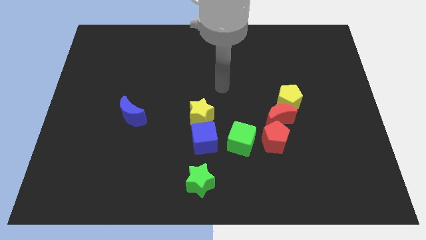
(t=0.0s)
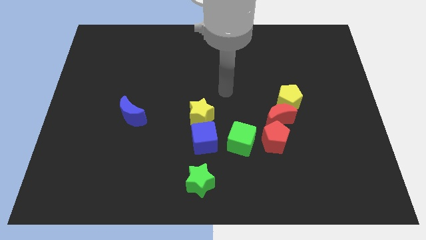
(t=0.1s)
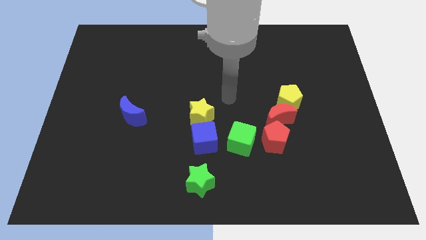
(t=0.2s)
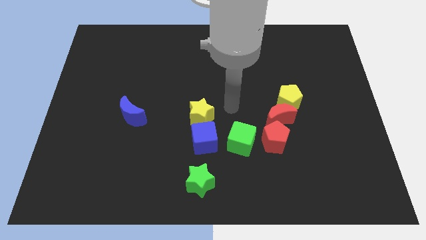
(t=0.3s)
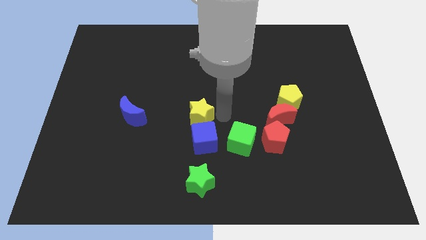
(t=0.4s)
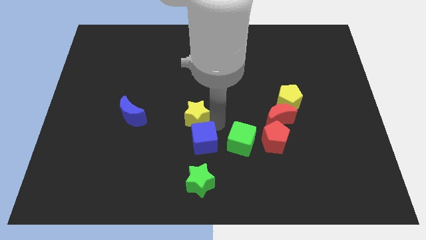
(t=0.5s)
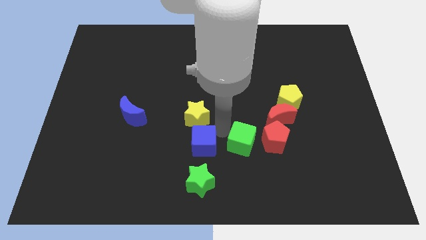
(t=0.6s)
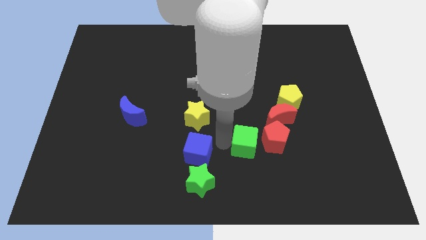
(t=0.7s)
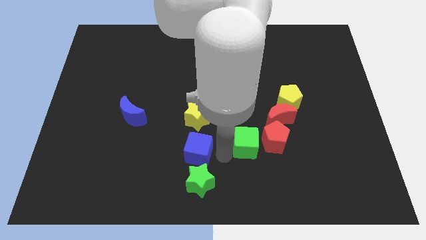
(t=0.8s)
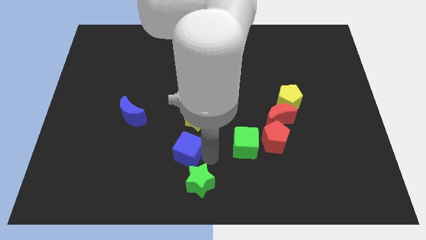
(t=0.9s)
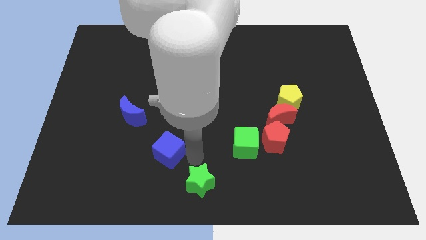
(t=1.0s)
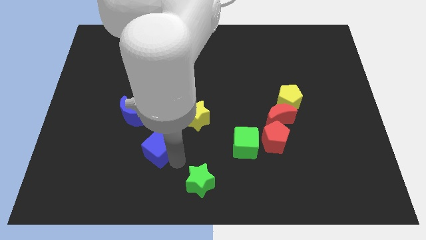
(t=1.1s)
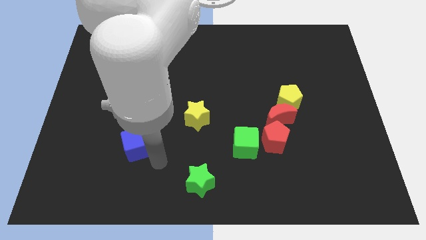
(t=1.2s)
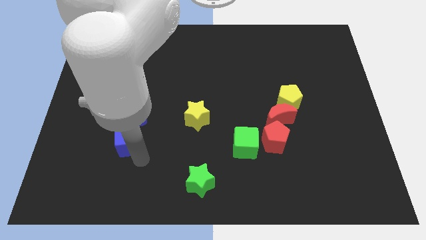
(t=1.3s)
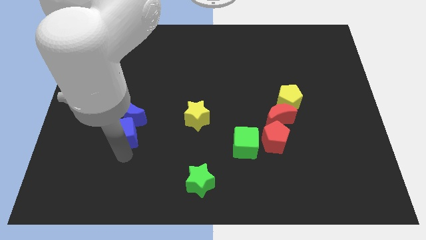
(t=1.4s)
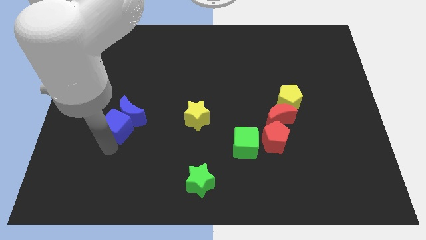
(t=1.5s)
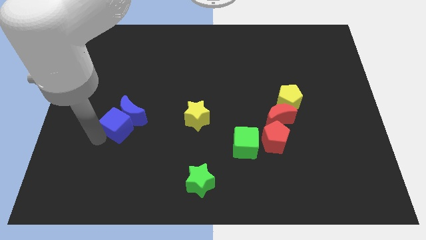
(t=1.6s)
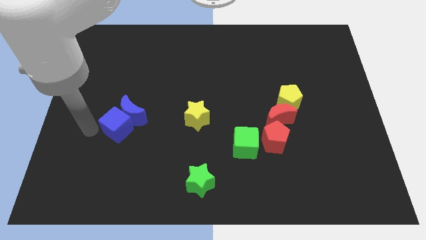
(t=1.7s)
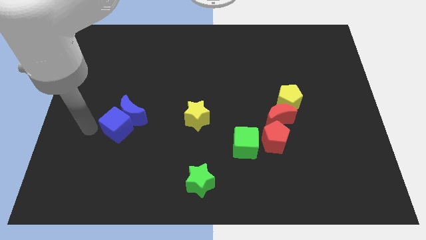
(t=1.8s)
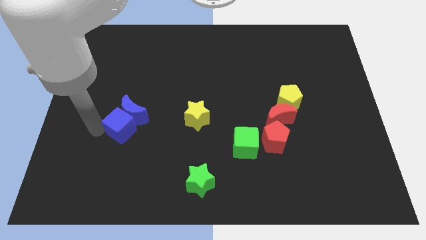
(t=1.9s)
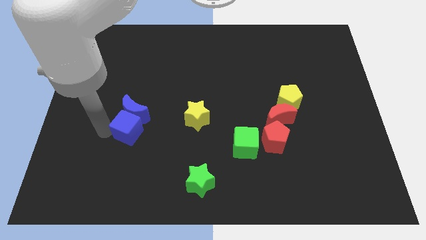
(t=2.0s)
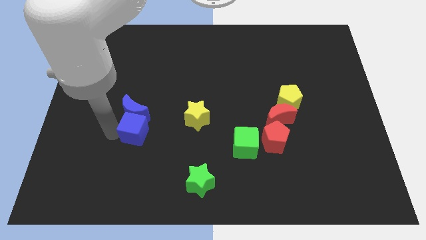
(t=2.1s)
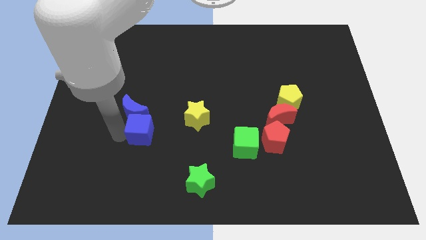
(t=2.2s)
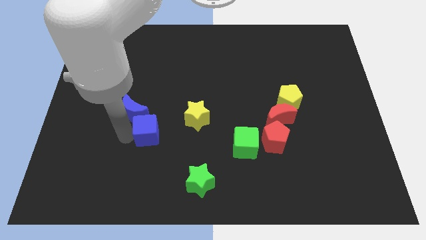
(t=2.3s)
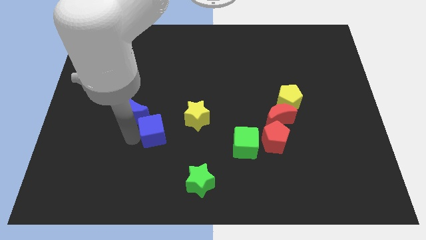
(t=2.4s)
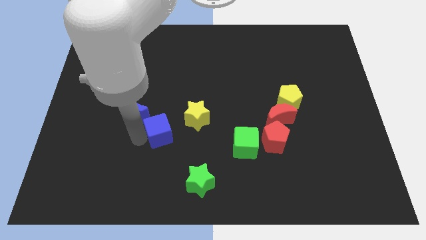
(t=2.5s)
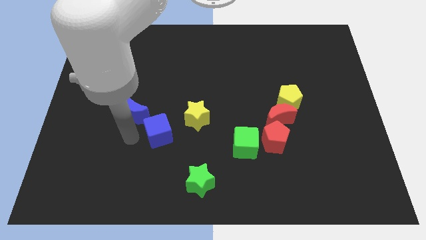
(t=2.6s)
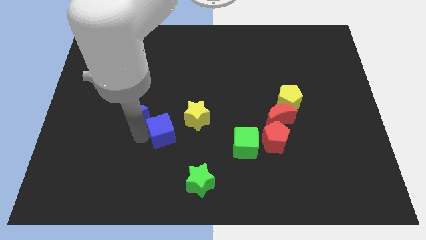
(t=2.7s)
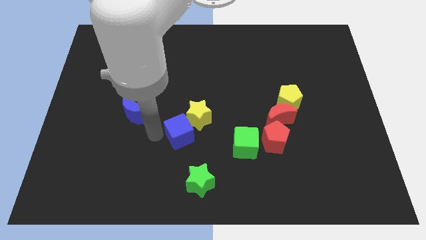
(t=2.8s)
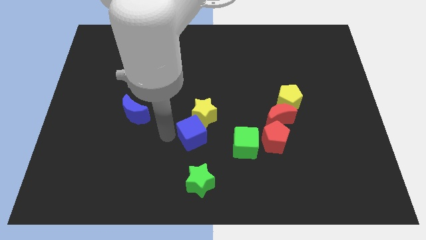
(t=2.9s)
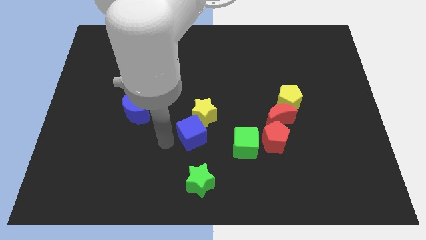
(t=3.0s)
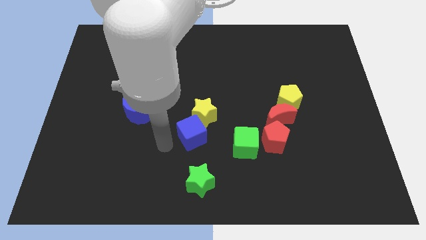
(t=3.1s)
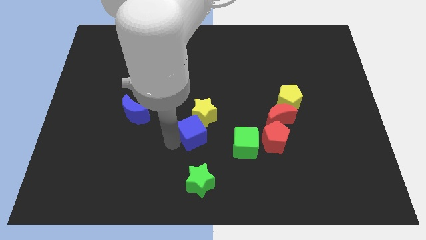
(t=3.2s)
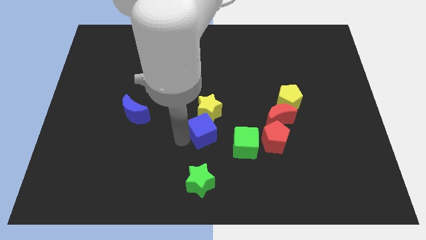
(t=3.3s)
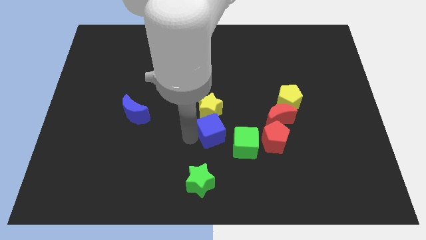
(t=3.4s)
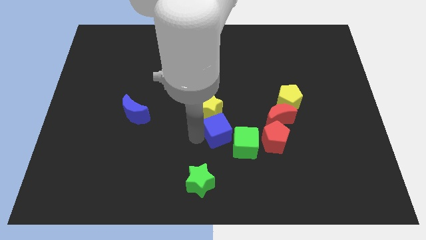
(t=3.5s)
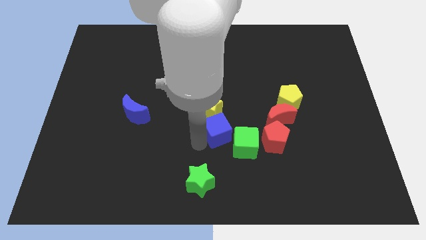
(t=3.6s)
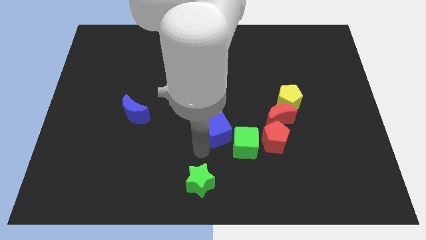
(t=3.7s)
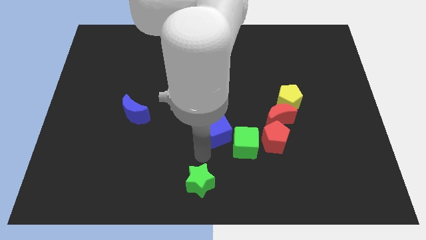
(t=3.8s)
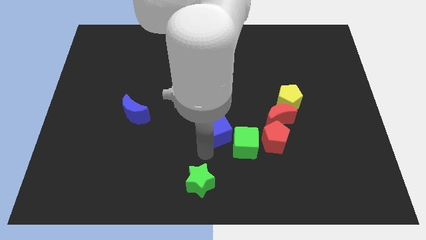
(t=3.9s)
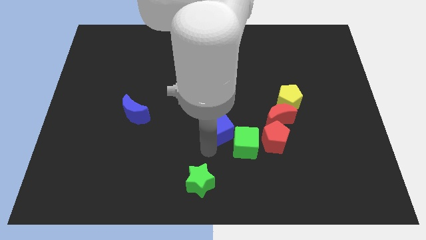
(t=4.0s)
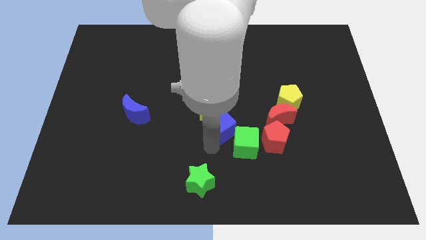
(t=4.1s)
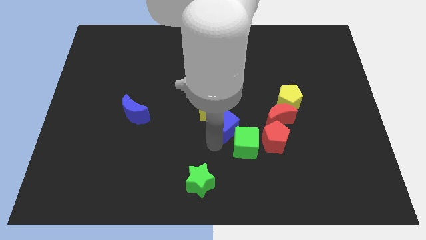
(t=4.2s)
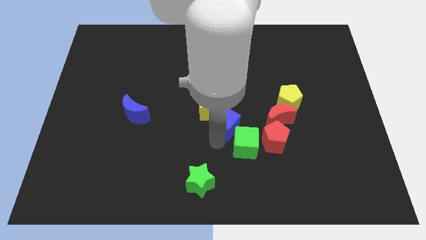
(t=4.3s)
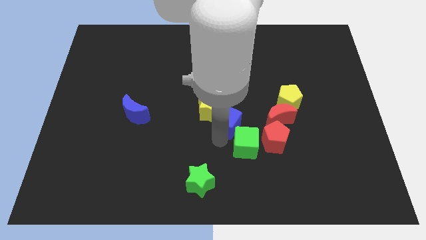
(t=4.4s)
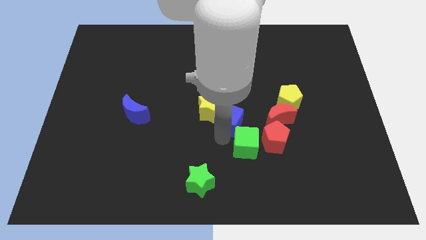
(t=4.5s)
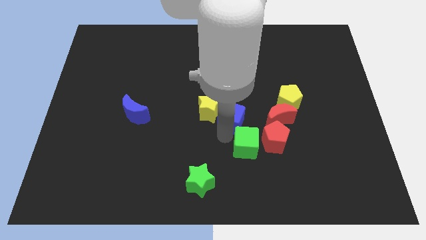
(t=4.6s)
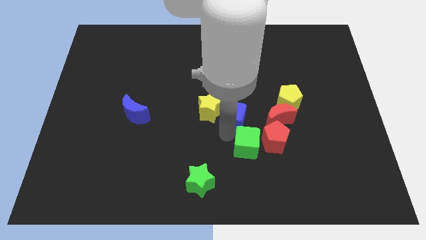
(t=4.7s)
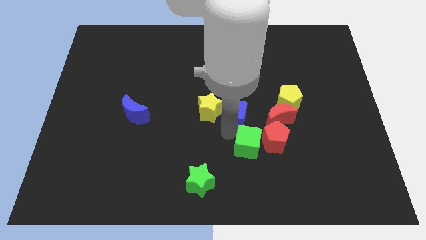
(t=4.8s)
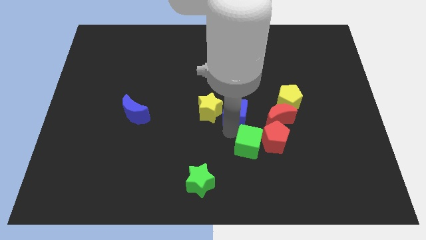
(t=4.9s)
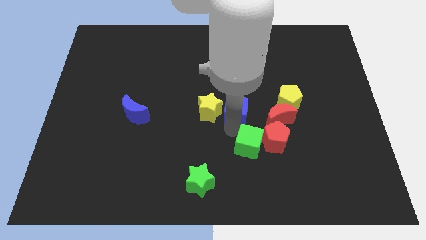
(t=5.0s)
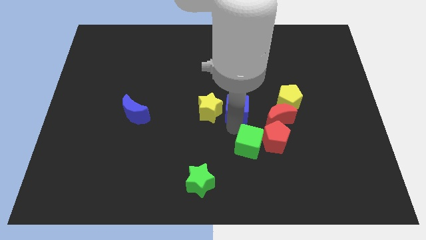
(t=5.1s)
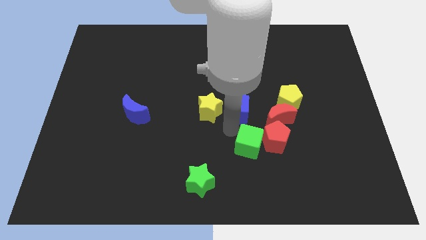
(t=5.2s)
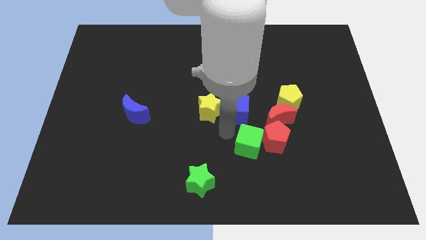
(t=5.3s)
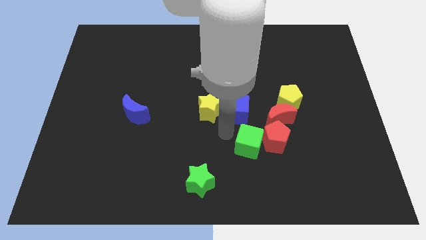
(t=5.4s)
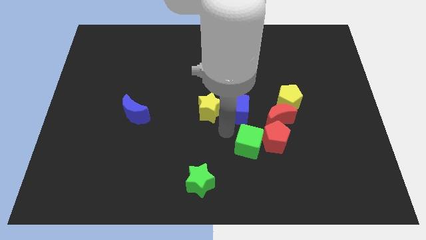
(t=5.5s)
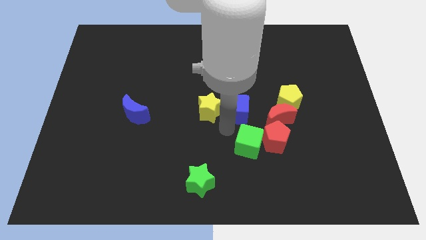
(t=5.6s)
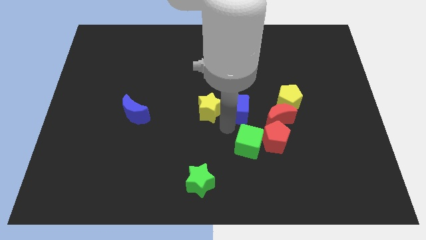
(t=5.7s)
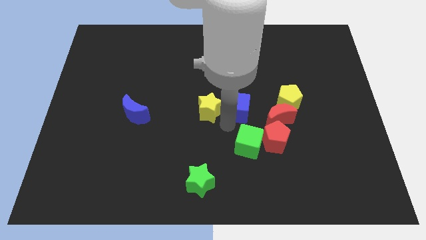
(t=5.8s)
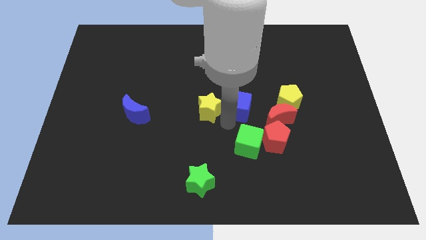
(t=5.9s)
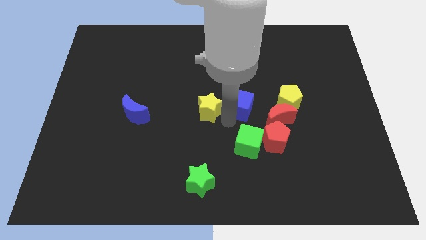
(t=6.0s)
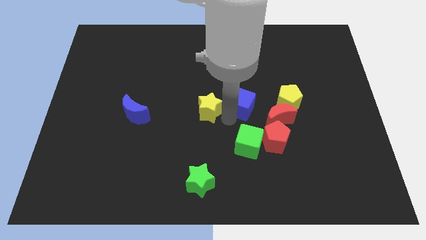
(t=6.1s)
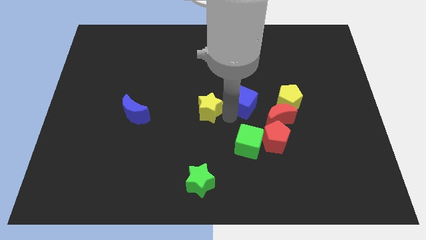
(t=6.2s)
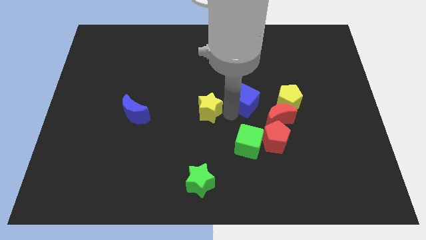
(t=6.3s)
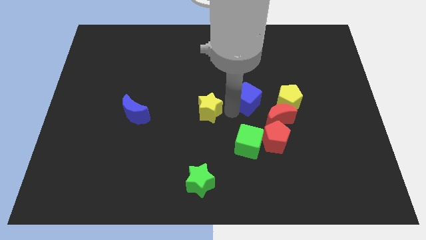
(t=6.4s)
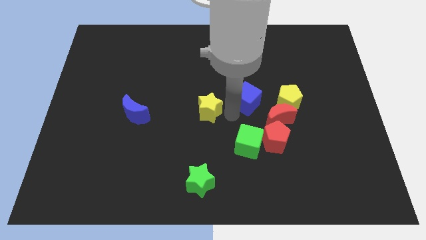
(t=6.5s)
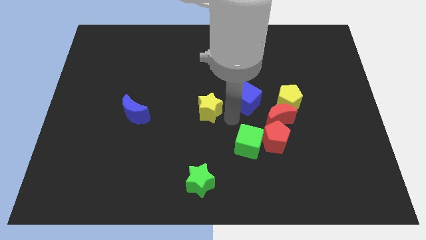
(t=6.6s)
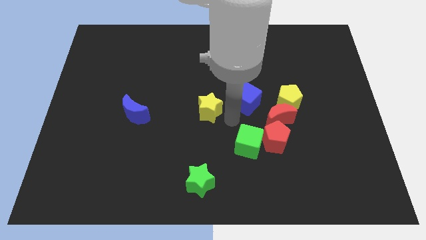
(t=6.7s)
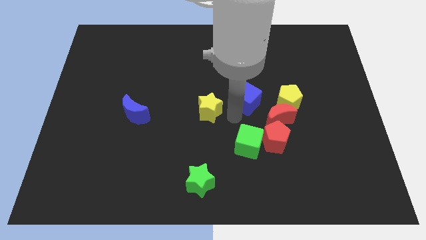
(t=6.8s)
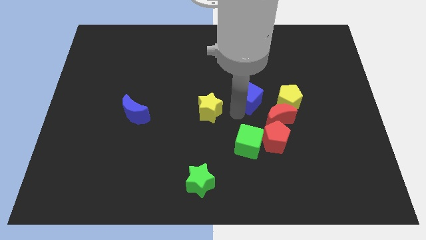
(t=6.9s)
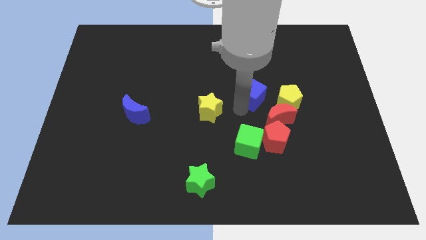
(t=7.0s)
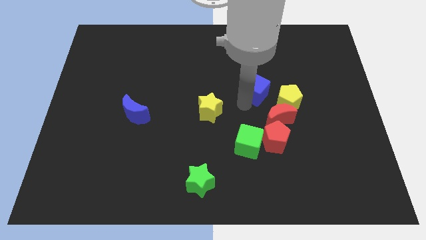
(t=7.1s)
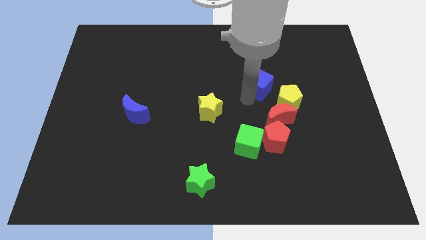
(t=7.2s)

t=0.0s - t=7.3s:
move the blue cube upwards and then right

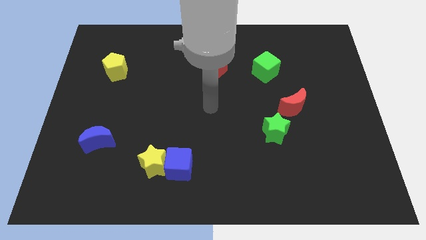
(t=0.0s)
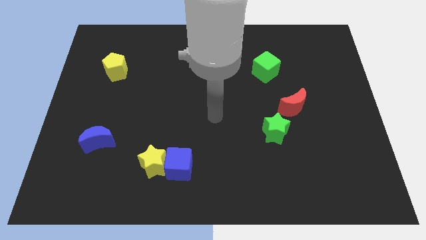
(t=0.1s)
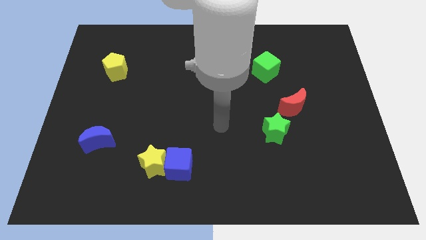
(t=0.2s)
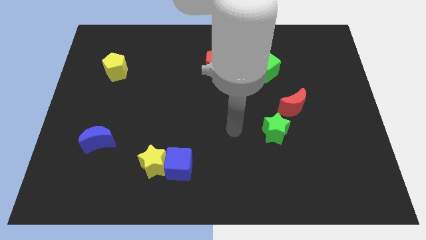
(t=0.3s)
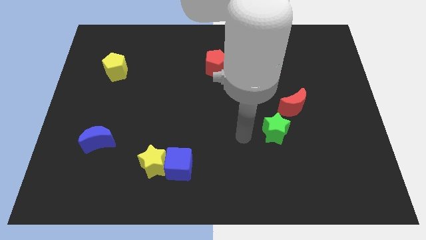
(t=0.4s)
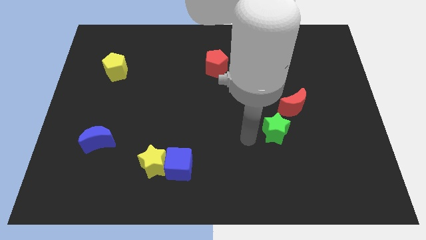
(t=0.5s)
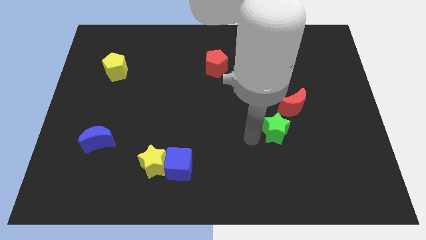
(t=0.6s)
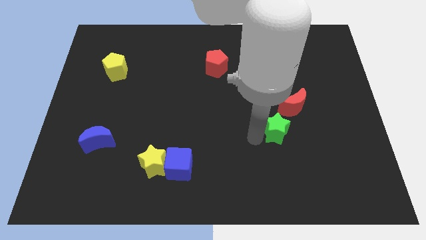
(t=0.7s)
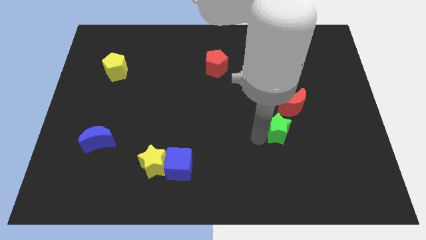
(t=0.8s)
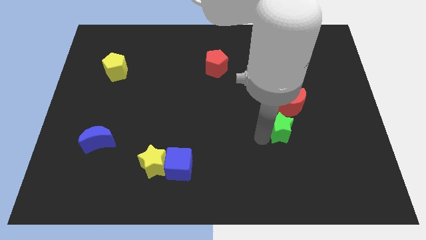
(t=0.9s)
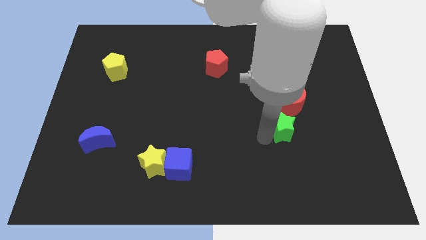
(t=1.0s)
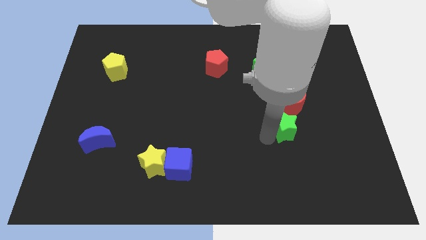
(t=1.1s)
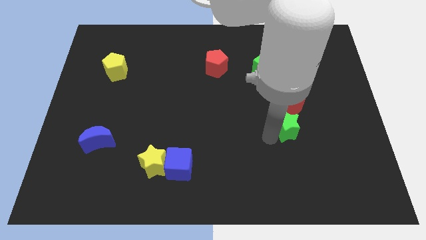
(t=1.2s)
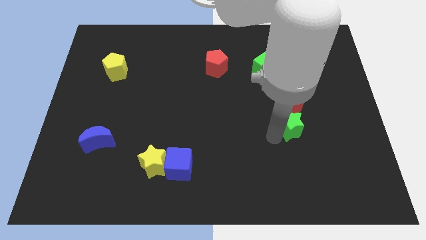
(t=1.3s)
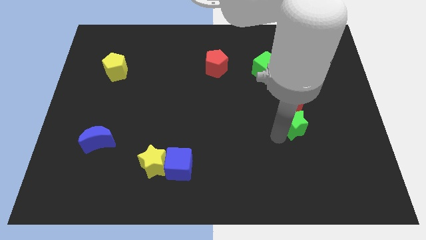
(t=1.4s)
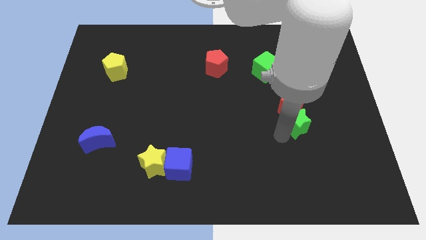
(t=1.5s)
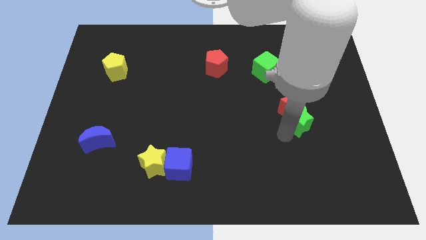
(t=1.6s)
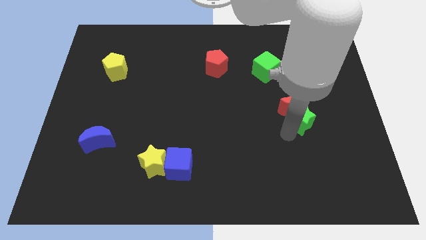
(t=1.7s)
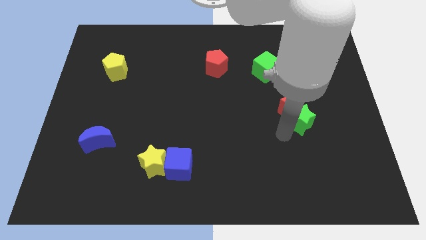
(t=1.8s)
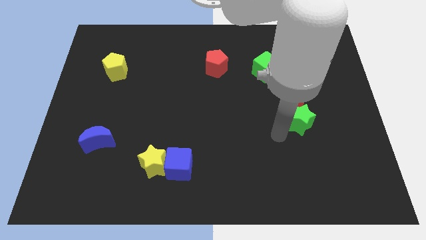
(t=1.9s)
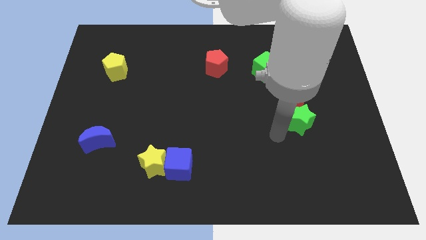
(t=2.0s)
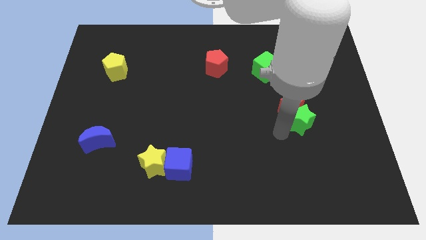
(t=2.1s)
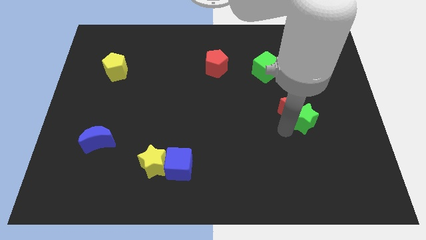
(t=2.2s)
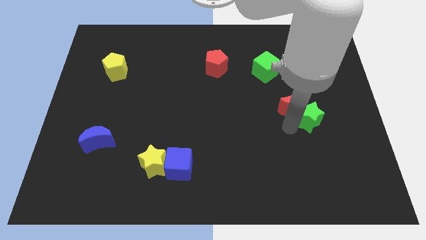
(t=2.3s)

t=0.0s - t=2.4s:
slide the green star slightly upwards and to the right
